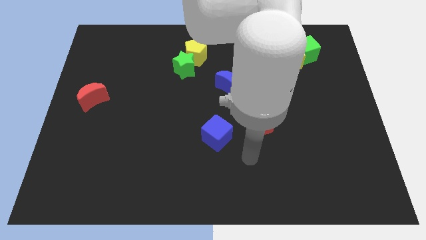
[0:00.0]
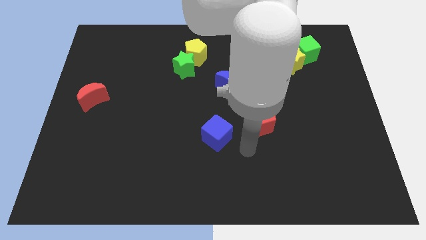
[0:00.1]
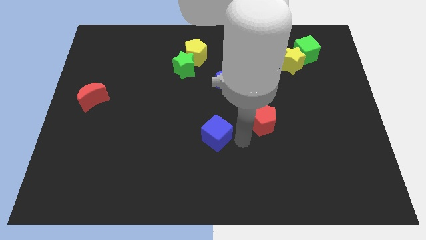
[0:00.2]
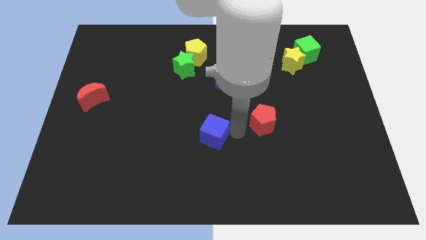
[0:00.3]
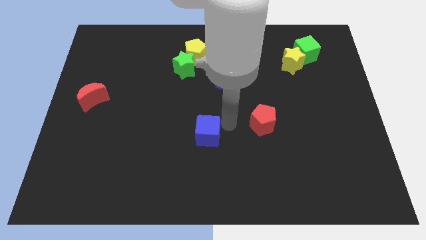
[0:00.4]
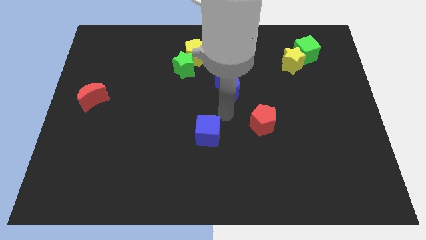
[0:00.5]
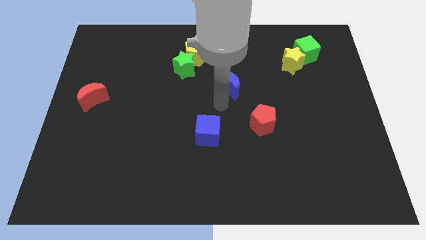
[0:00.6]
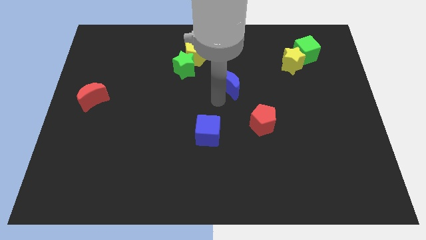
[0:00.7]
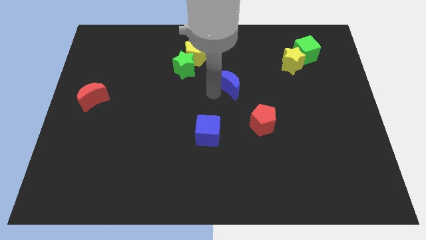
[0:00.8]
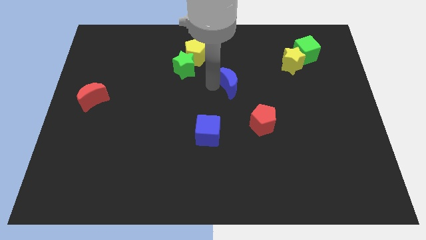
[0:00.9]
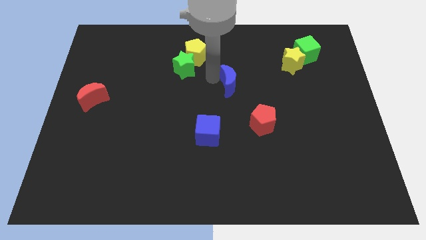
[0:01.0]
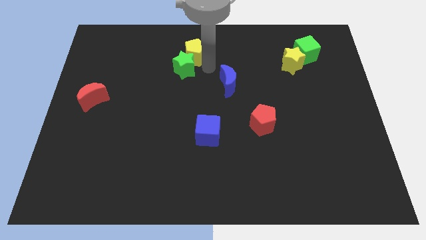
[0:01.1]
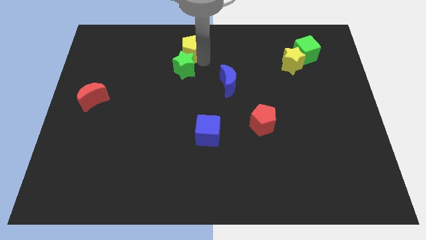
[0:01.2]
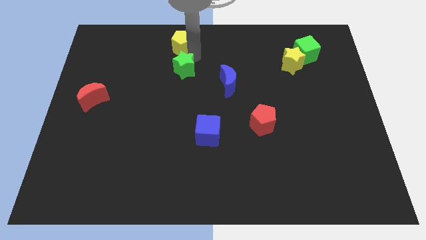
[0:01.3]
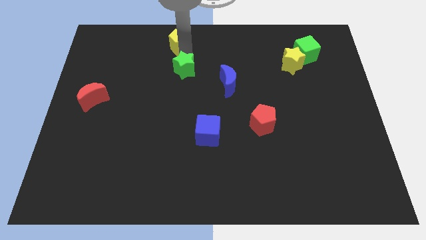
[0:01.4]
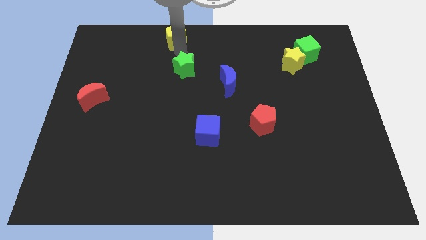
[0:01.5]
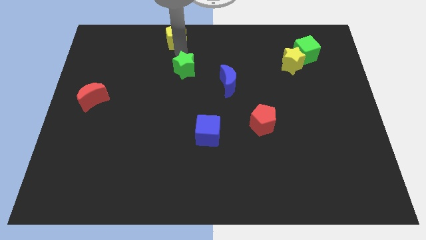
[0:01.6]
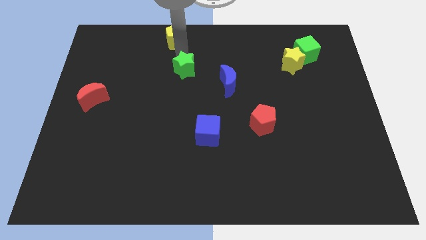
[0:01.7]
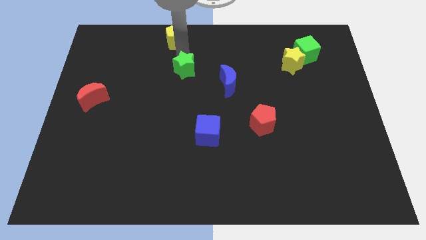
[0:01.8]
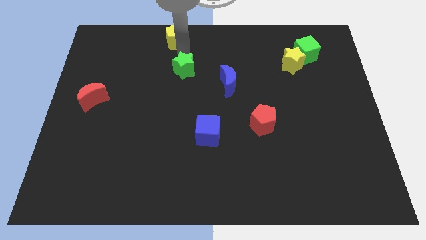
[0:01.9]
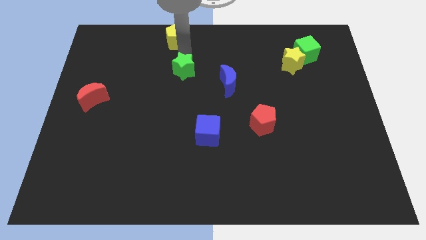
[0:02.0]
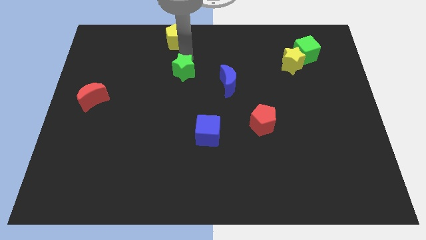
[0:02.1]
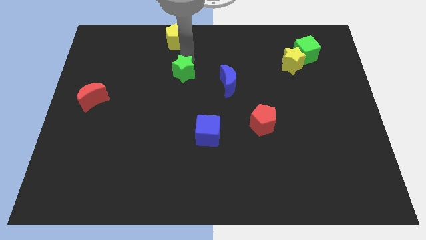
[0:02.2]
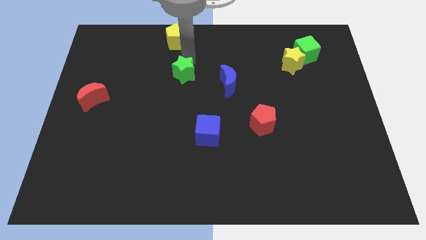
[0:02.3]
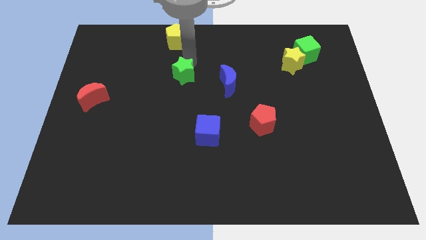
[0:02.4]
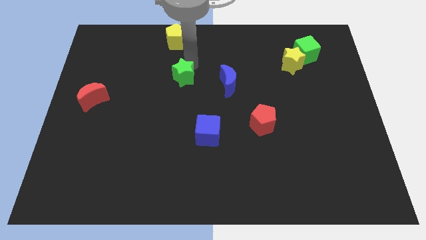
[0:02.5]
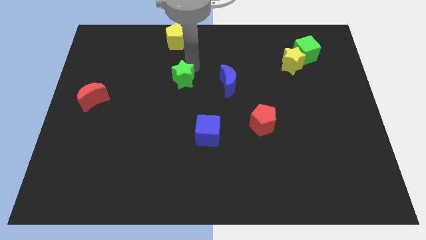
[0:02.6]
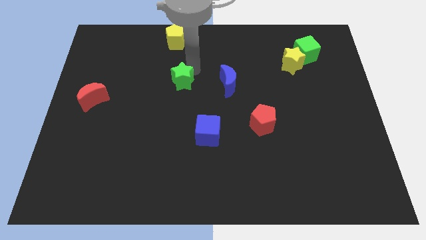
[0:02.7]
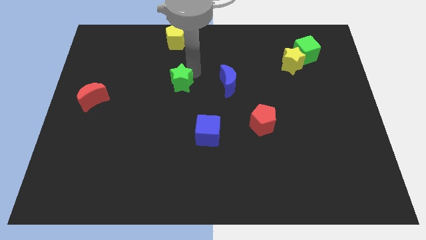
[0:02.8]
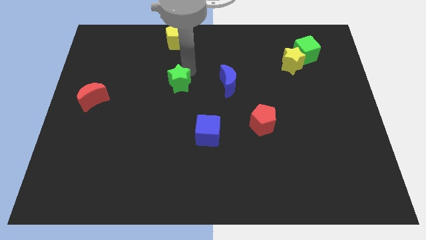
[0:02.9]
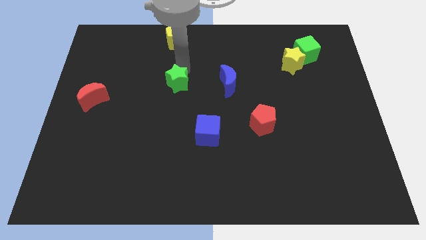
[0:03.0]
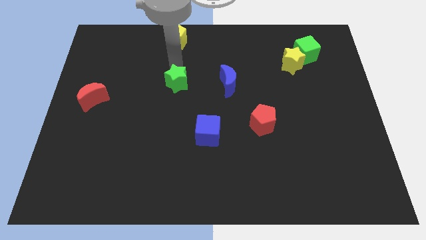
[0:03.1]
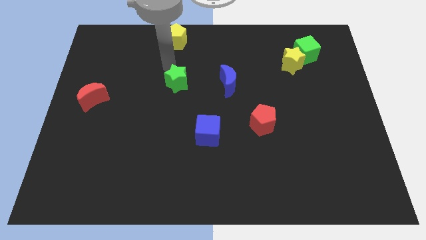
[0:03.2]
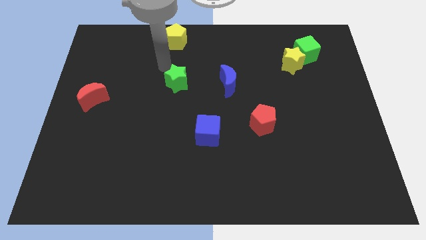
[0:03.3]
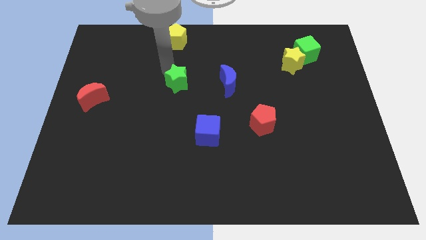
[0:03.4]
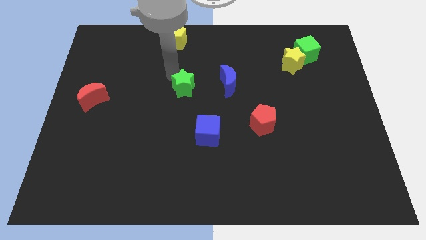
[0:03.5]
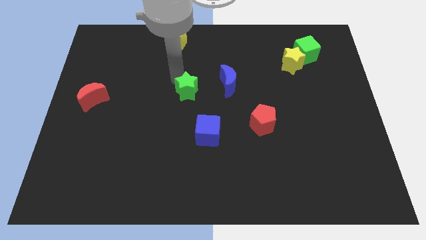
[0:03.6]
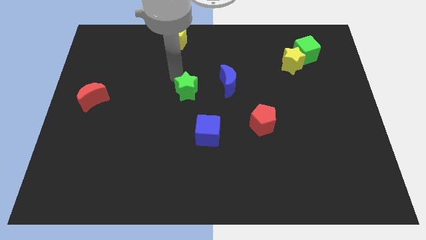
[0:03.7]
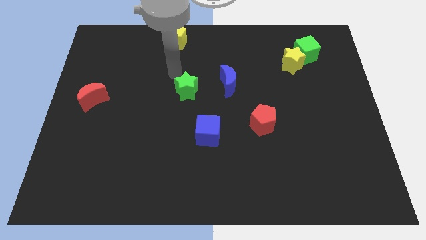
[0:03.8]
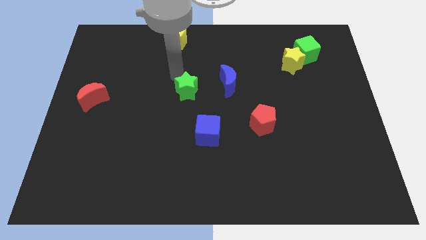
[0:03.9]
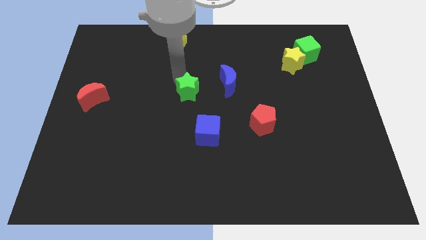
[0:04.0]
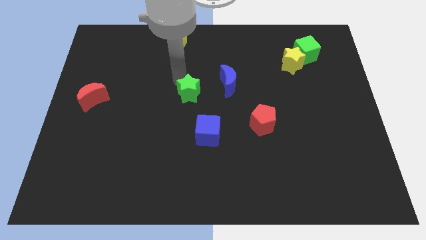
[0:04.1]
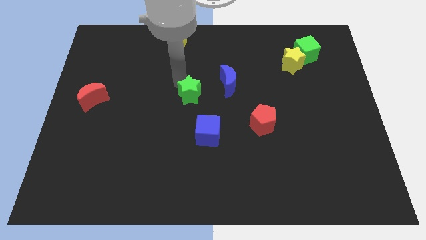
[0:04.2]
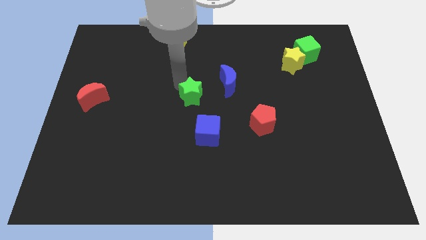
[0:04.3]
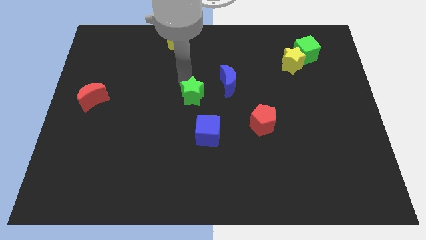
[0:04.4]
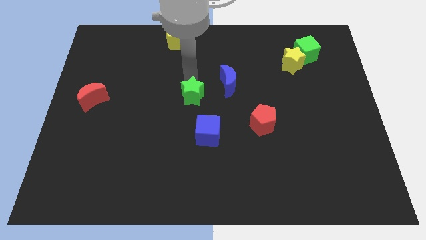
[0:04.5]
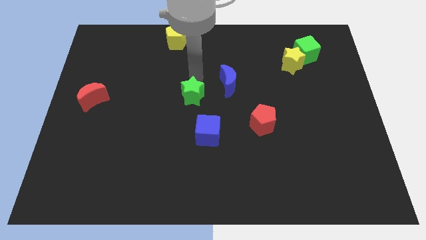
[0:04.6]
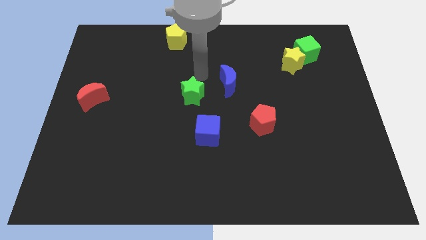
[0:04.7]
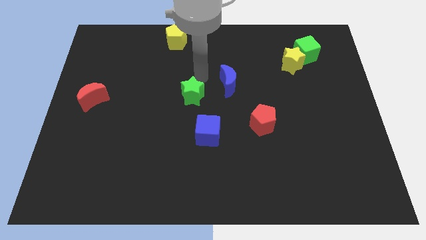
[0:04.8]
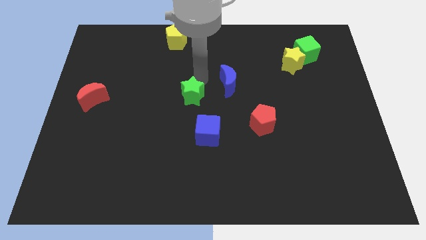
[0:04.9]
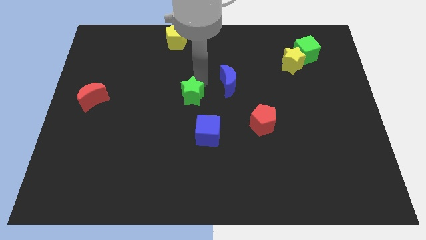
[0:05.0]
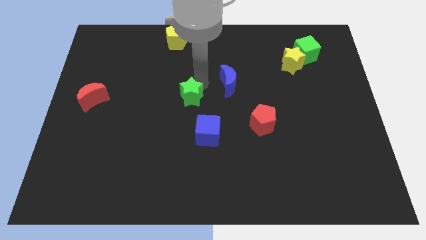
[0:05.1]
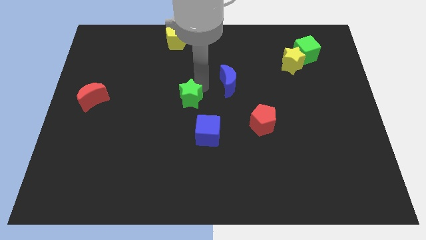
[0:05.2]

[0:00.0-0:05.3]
put the green star to the top left side of the blue cube

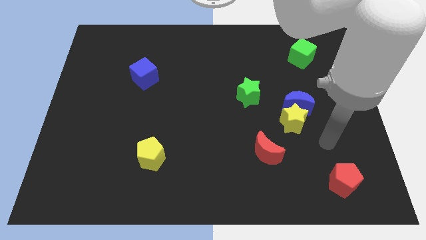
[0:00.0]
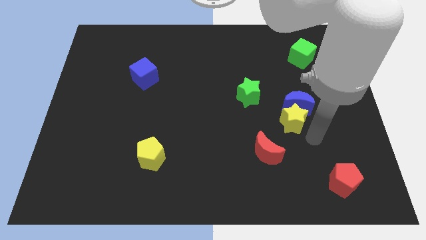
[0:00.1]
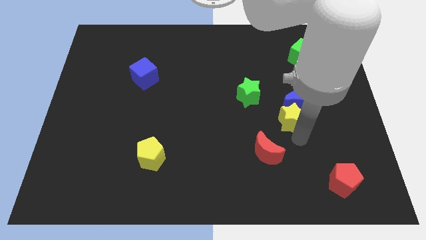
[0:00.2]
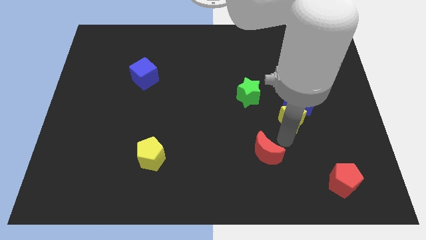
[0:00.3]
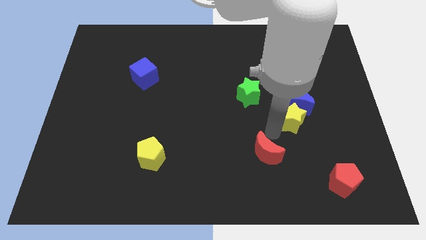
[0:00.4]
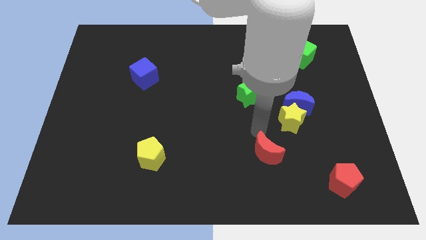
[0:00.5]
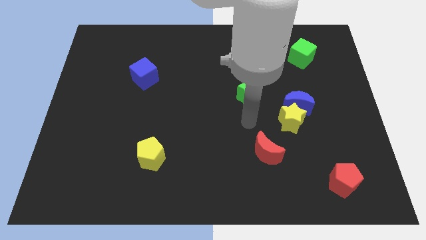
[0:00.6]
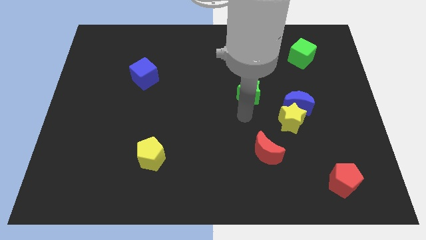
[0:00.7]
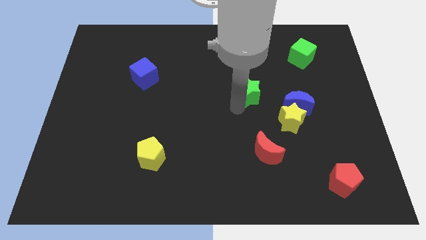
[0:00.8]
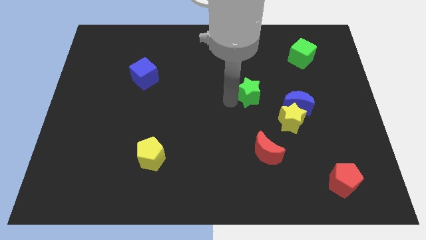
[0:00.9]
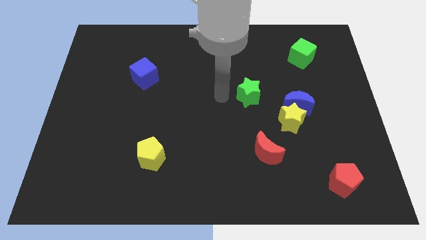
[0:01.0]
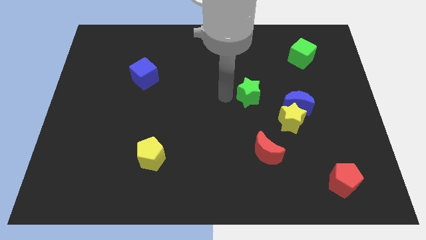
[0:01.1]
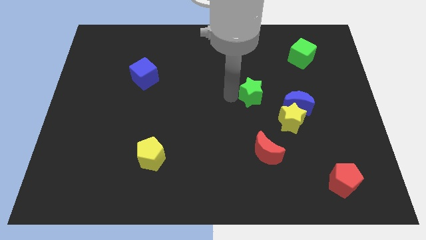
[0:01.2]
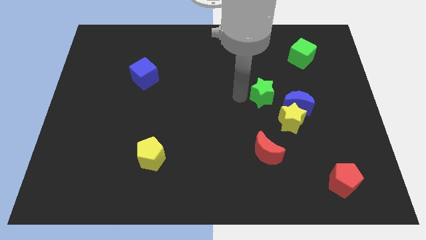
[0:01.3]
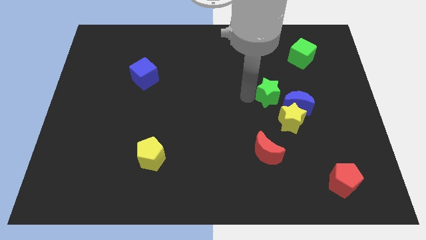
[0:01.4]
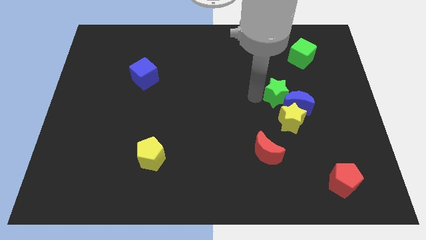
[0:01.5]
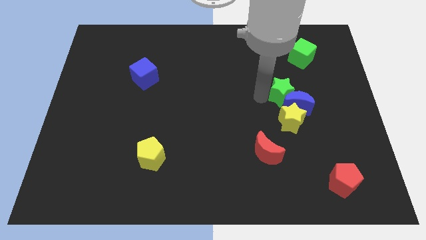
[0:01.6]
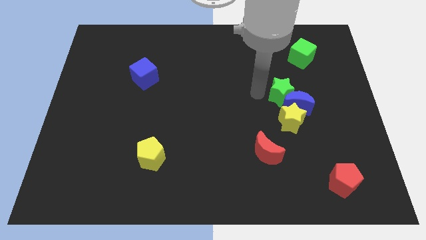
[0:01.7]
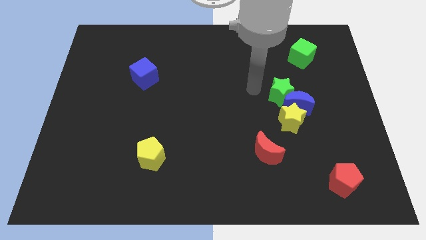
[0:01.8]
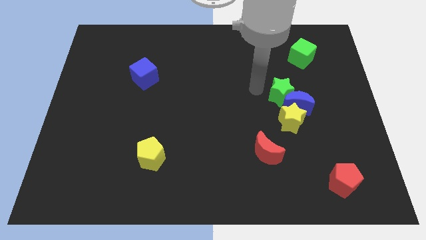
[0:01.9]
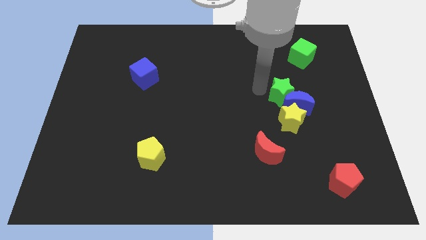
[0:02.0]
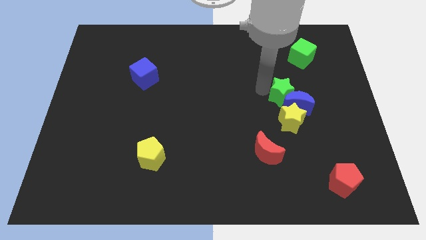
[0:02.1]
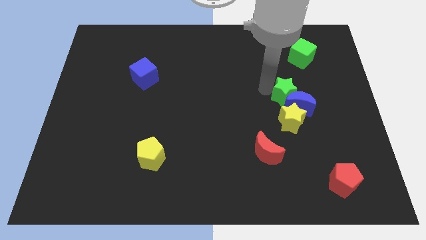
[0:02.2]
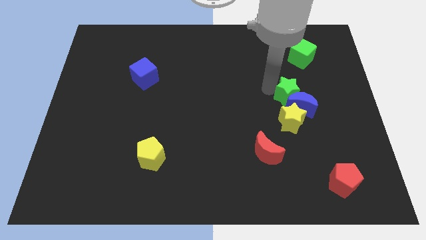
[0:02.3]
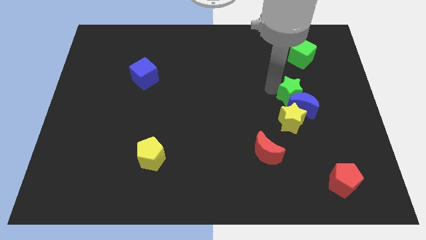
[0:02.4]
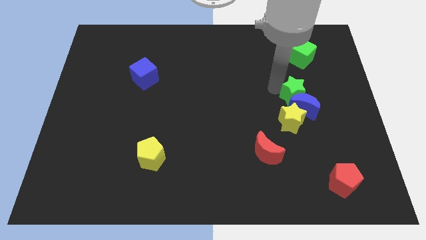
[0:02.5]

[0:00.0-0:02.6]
move the green star to the top right side of the yellow star
